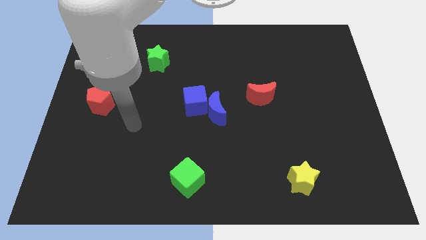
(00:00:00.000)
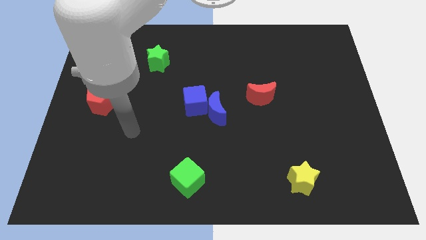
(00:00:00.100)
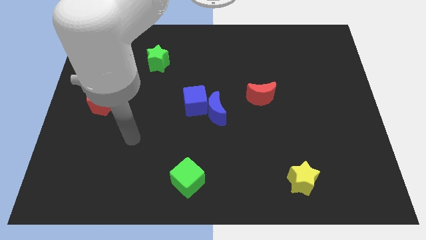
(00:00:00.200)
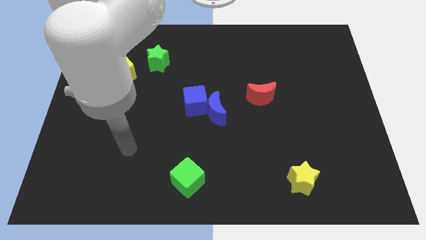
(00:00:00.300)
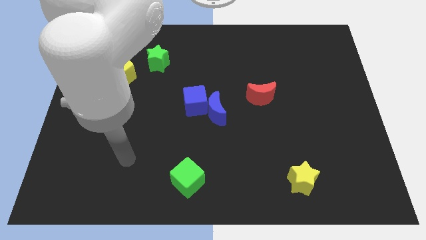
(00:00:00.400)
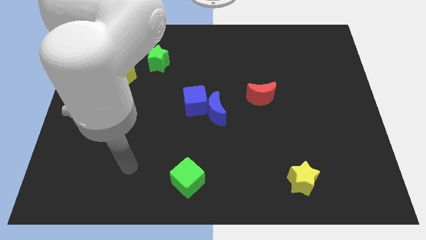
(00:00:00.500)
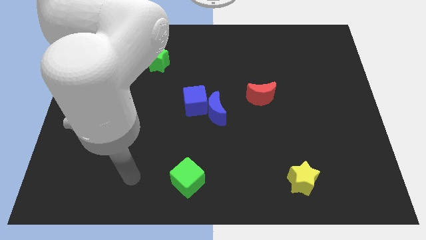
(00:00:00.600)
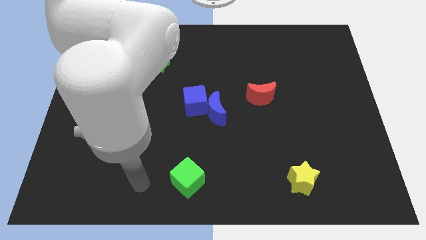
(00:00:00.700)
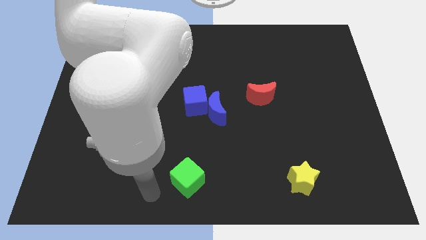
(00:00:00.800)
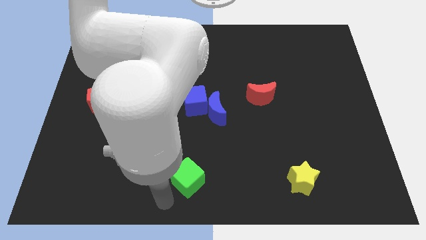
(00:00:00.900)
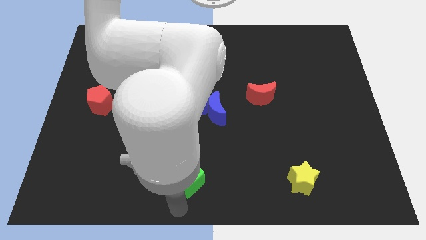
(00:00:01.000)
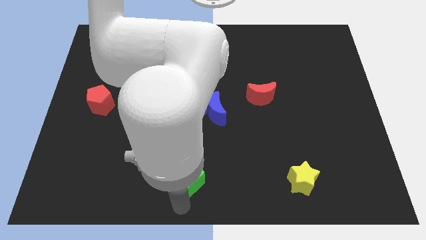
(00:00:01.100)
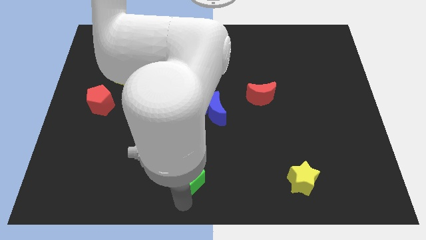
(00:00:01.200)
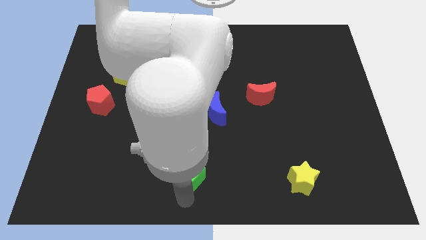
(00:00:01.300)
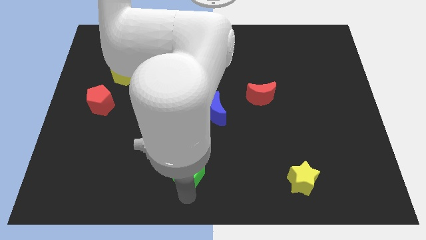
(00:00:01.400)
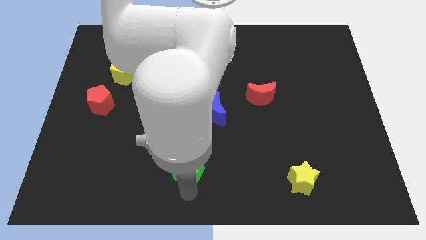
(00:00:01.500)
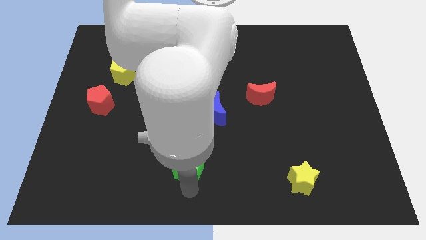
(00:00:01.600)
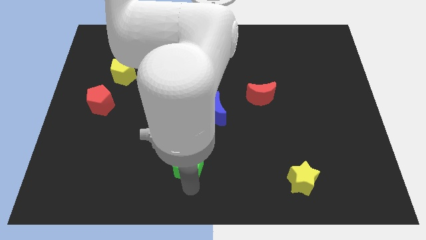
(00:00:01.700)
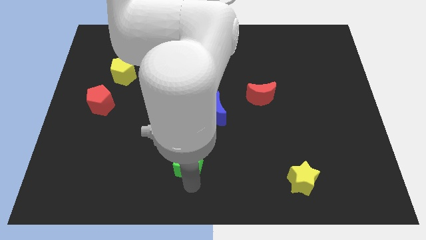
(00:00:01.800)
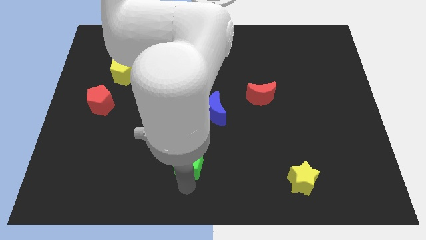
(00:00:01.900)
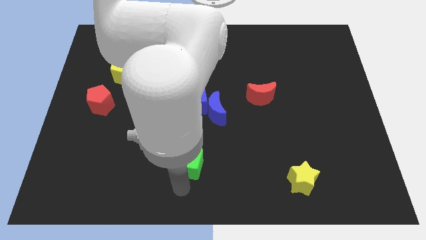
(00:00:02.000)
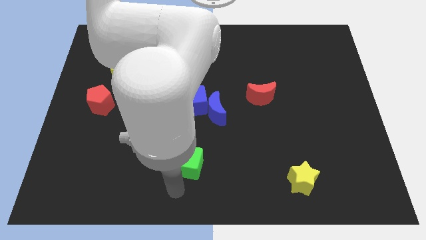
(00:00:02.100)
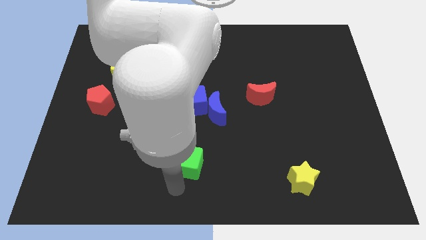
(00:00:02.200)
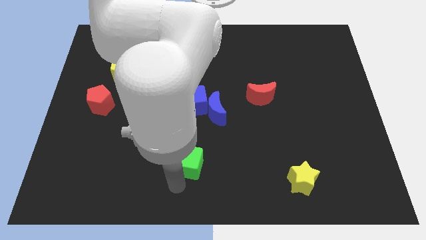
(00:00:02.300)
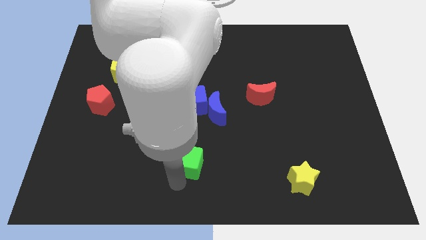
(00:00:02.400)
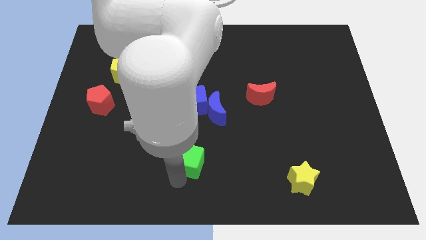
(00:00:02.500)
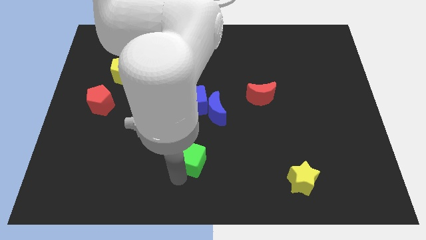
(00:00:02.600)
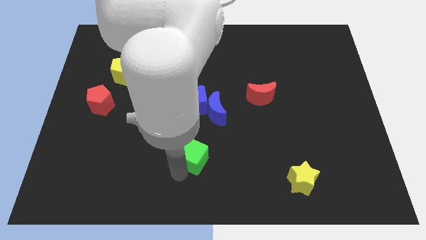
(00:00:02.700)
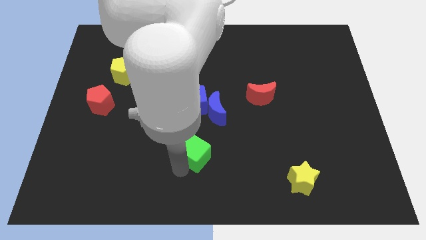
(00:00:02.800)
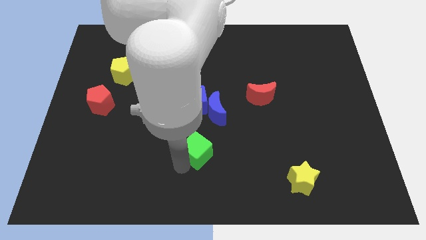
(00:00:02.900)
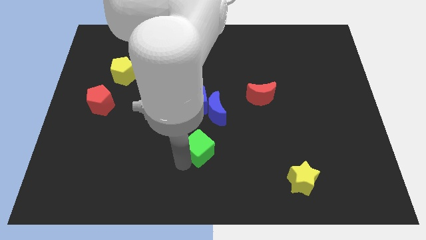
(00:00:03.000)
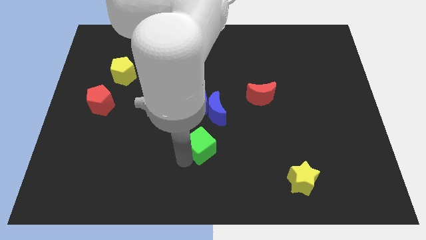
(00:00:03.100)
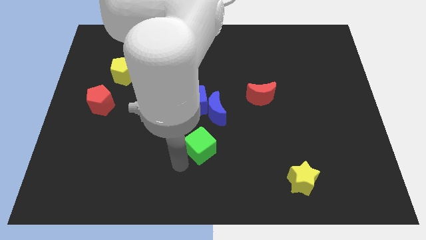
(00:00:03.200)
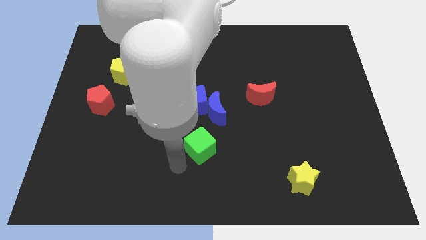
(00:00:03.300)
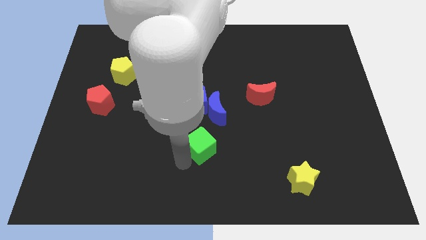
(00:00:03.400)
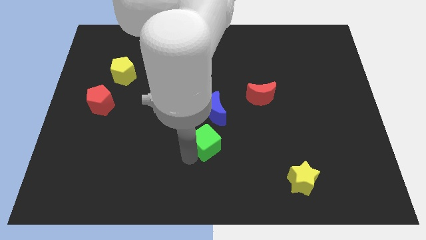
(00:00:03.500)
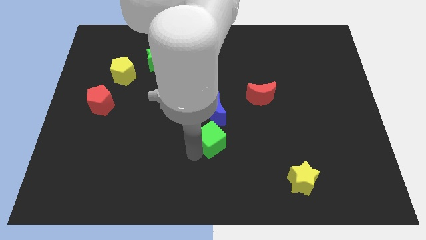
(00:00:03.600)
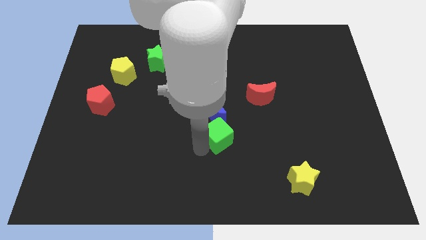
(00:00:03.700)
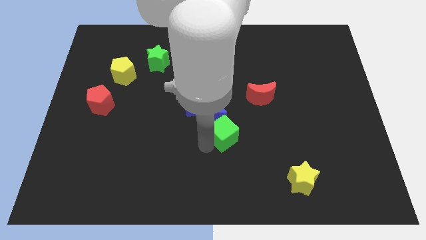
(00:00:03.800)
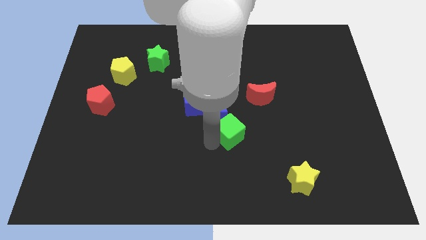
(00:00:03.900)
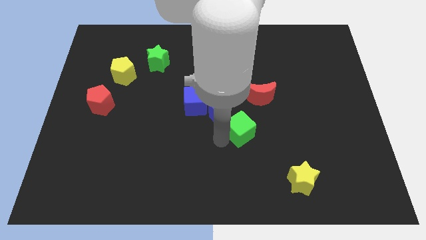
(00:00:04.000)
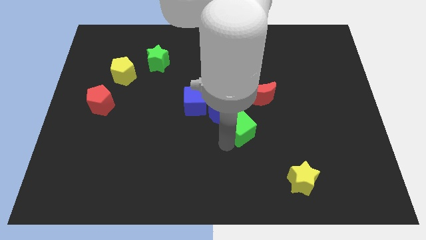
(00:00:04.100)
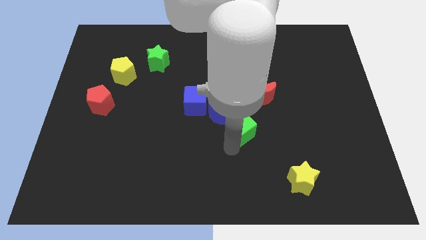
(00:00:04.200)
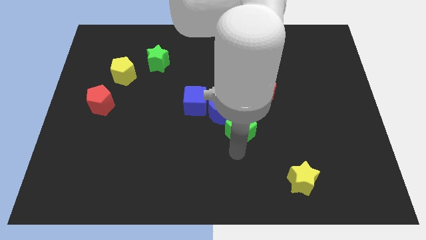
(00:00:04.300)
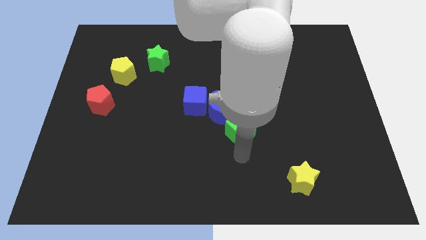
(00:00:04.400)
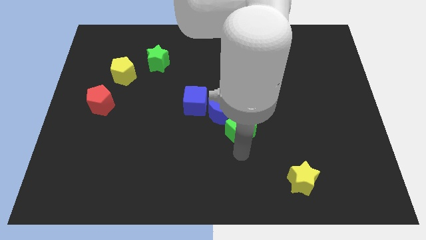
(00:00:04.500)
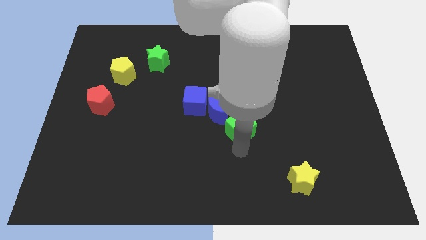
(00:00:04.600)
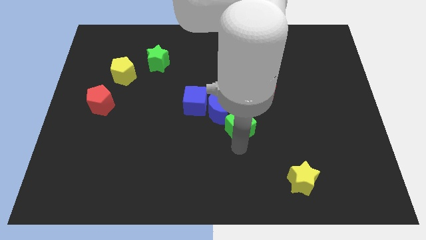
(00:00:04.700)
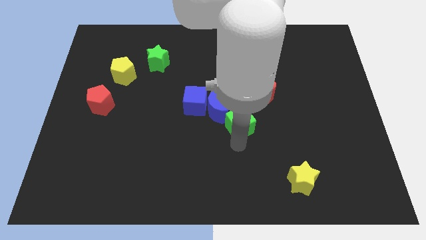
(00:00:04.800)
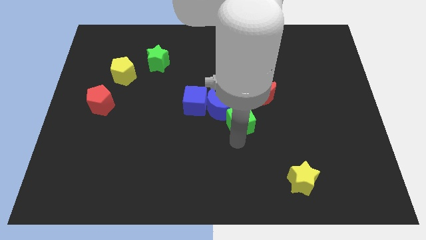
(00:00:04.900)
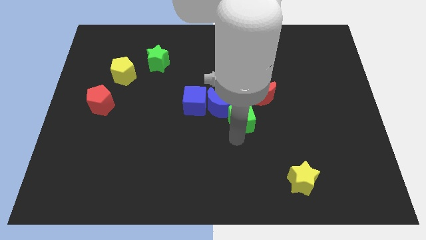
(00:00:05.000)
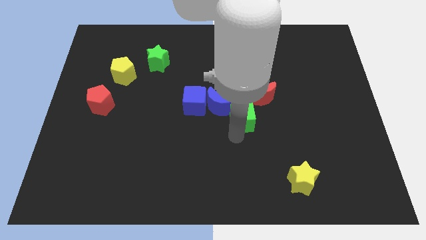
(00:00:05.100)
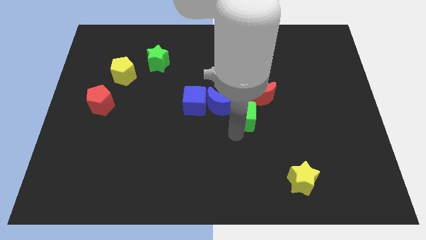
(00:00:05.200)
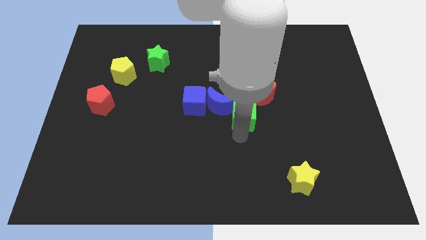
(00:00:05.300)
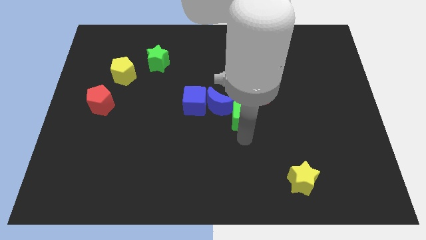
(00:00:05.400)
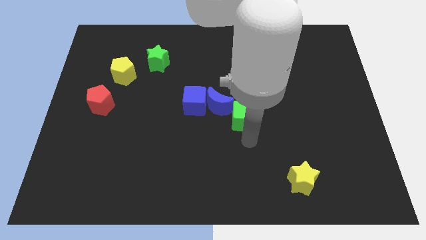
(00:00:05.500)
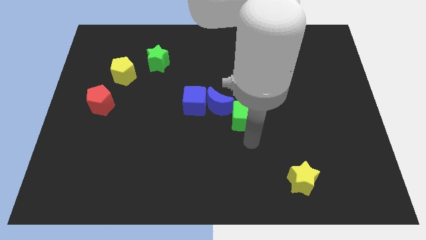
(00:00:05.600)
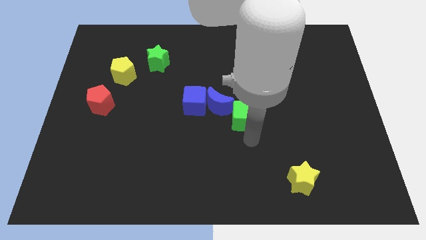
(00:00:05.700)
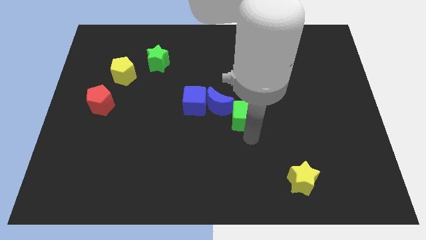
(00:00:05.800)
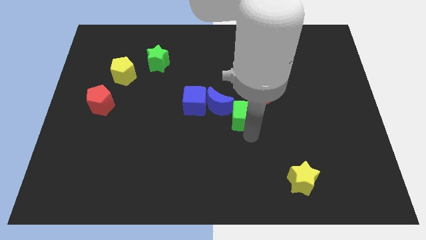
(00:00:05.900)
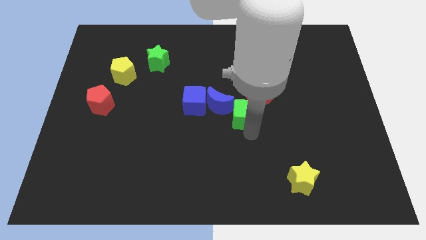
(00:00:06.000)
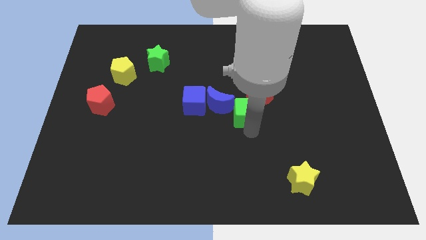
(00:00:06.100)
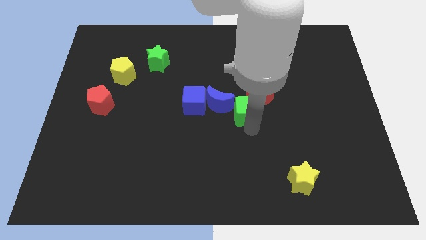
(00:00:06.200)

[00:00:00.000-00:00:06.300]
push the green cube just left of the red moon

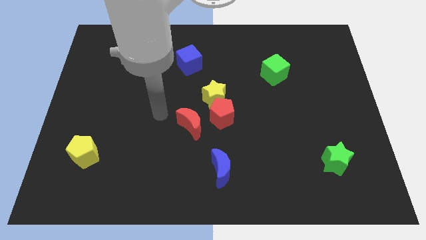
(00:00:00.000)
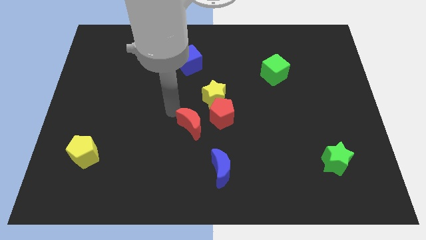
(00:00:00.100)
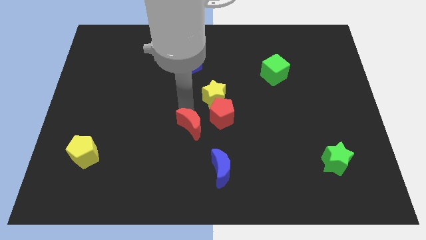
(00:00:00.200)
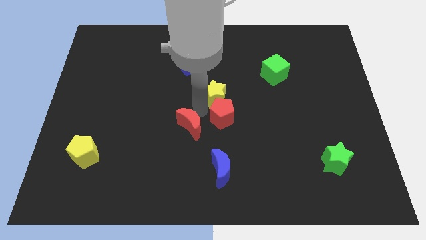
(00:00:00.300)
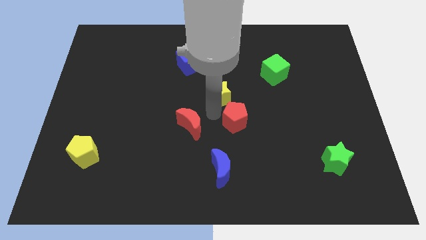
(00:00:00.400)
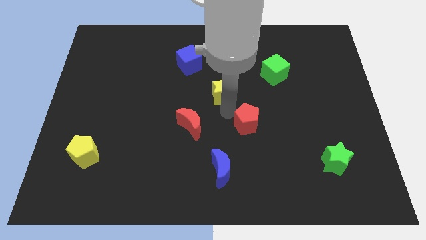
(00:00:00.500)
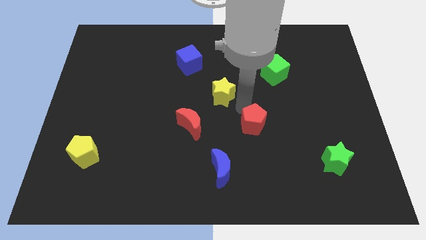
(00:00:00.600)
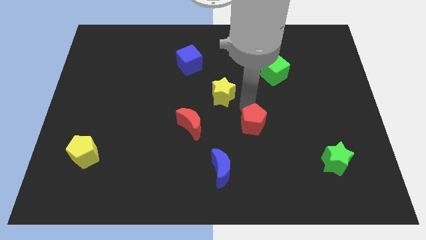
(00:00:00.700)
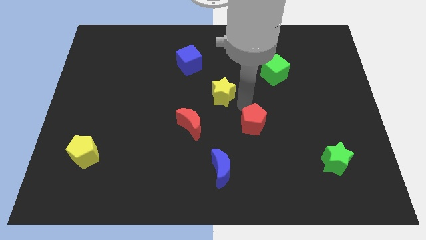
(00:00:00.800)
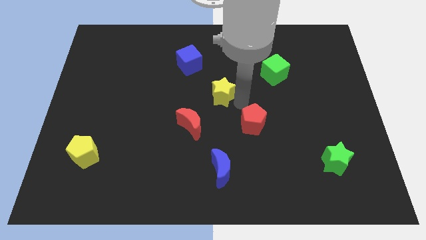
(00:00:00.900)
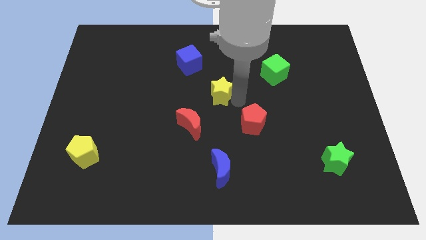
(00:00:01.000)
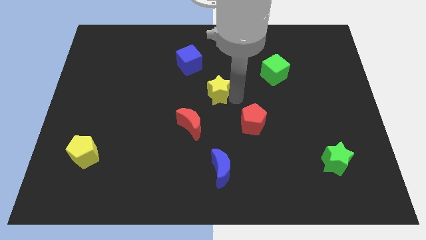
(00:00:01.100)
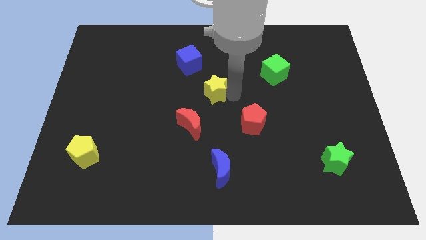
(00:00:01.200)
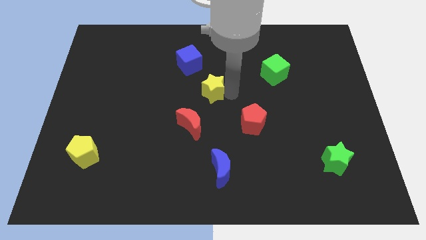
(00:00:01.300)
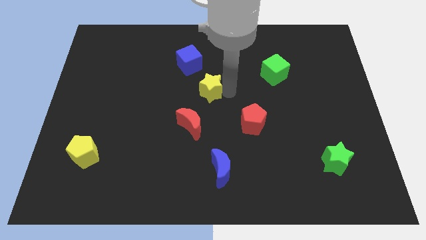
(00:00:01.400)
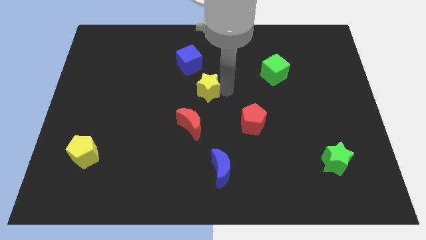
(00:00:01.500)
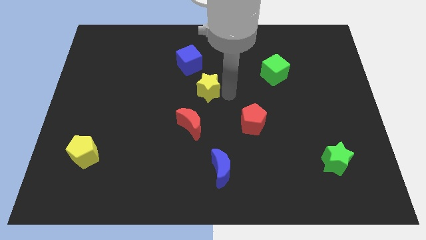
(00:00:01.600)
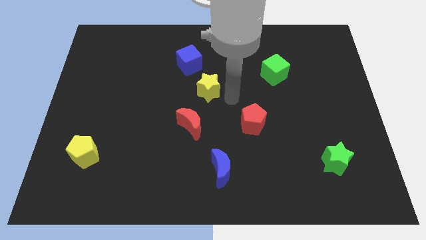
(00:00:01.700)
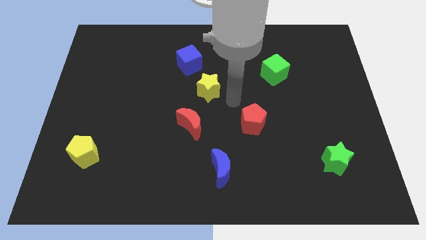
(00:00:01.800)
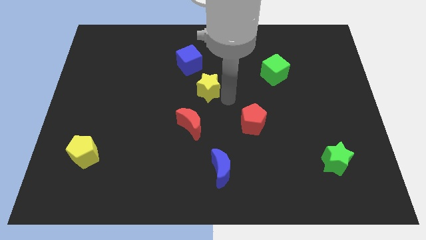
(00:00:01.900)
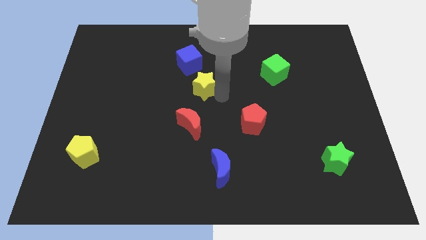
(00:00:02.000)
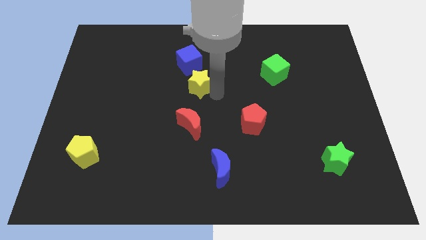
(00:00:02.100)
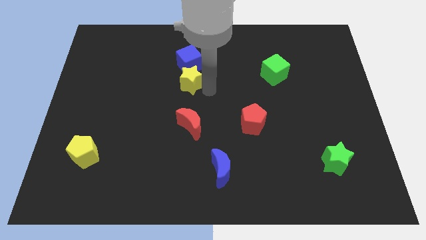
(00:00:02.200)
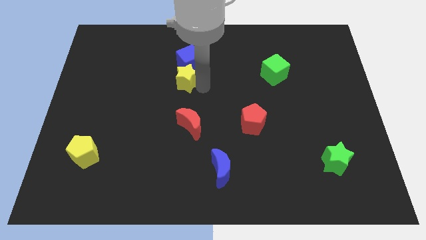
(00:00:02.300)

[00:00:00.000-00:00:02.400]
put the yellow star to the bottom left side of the blue cube
